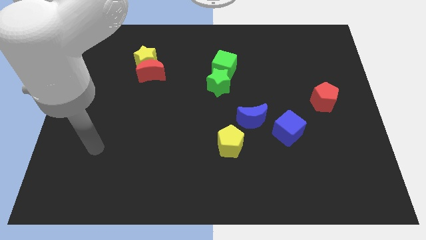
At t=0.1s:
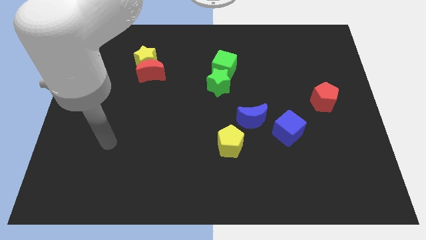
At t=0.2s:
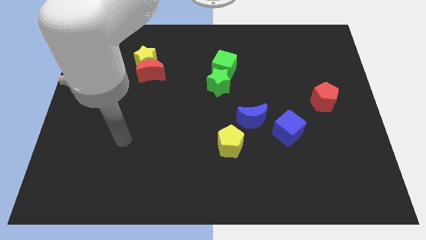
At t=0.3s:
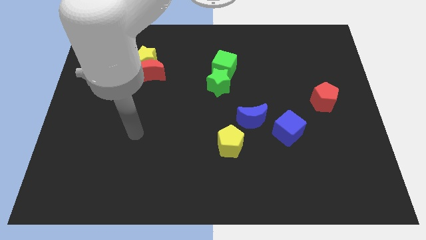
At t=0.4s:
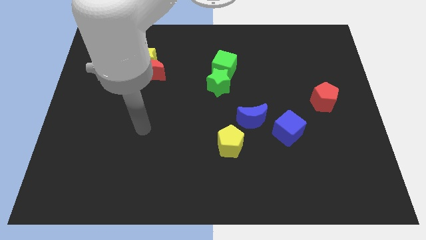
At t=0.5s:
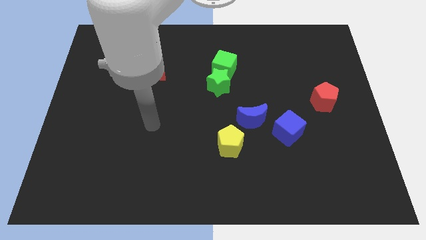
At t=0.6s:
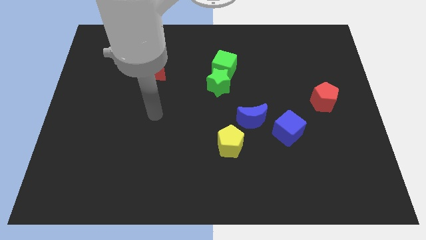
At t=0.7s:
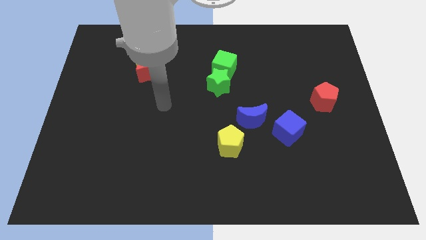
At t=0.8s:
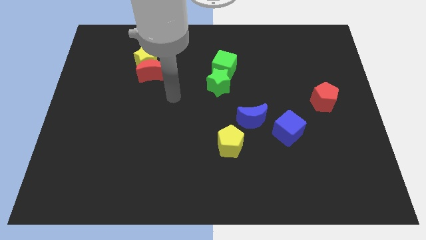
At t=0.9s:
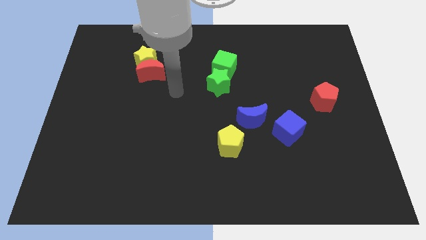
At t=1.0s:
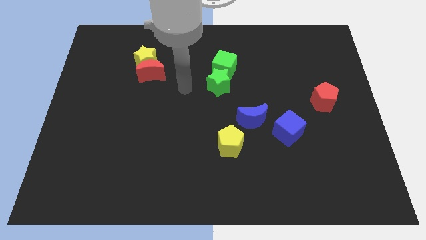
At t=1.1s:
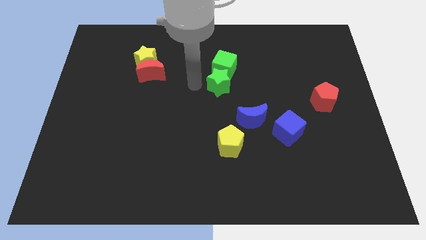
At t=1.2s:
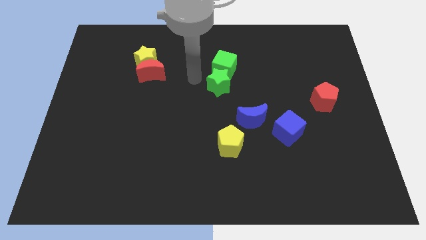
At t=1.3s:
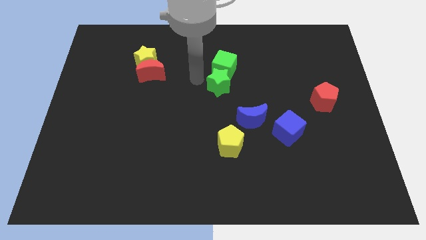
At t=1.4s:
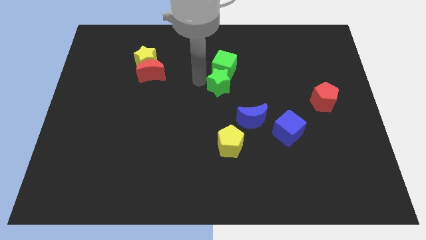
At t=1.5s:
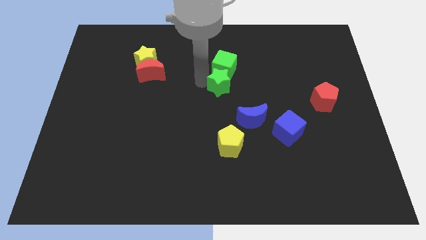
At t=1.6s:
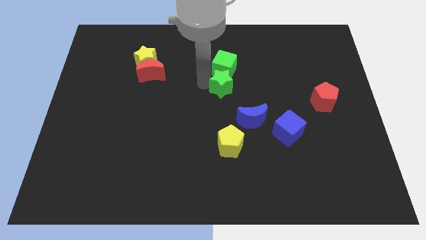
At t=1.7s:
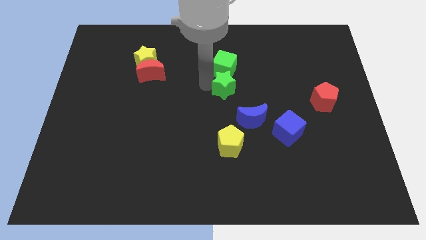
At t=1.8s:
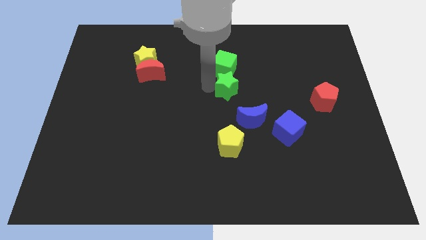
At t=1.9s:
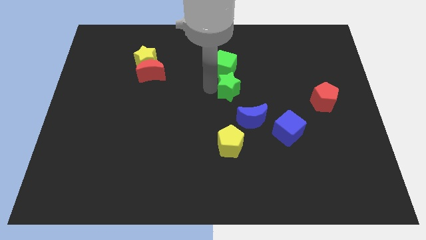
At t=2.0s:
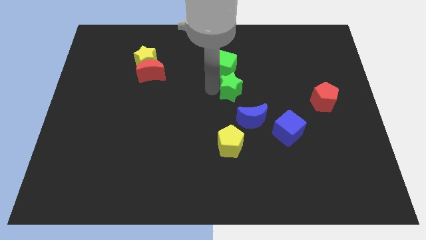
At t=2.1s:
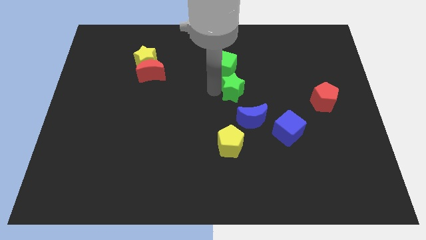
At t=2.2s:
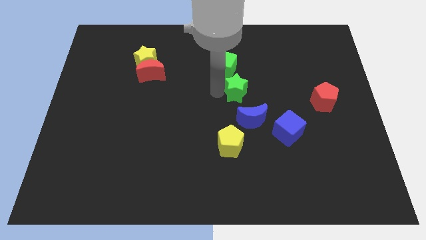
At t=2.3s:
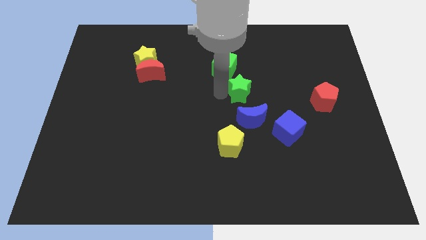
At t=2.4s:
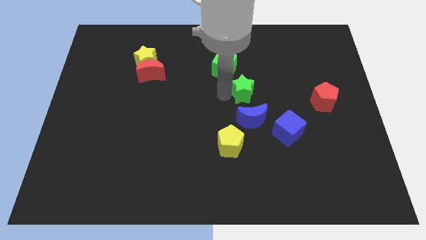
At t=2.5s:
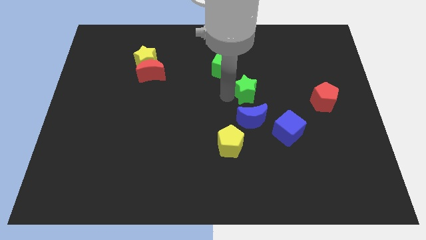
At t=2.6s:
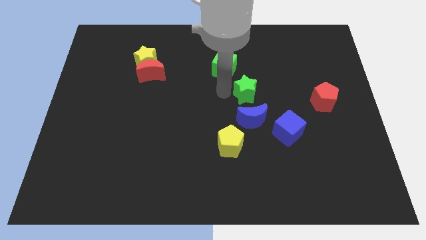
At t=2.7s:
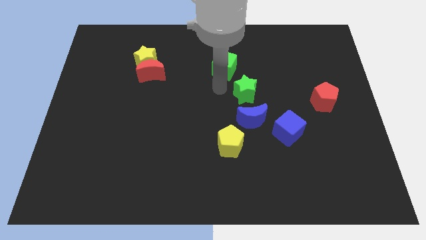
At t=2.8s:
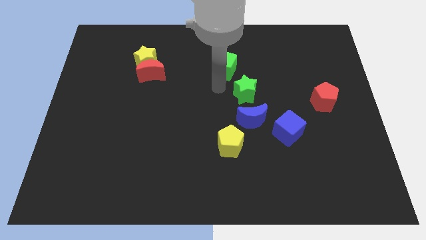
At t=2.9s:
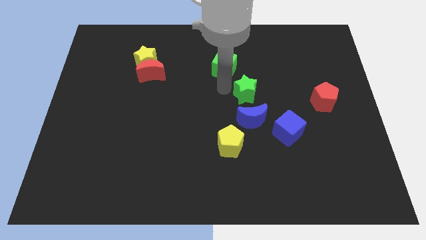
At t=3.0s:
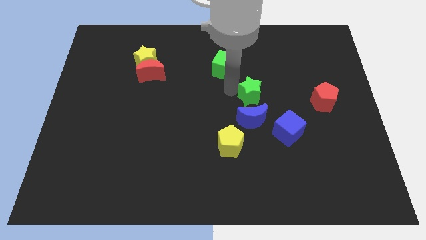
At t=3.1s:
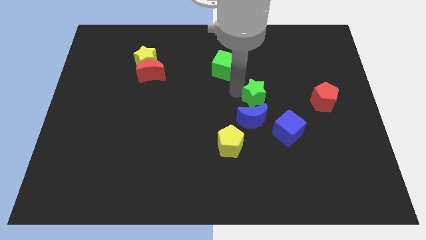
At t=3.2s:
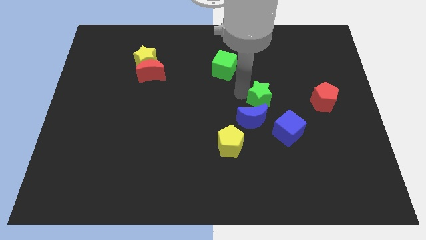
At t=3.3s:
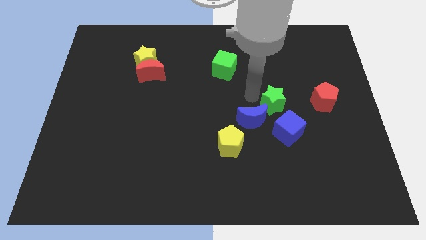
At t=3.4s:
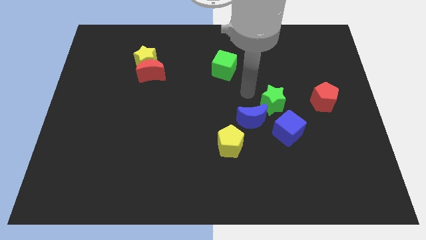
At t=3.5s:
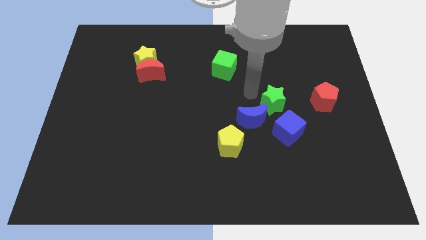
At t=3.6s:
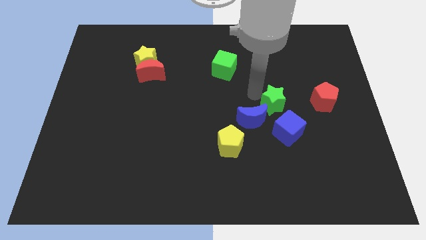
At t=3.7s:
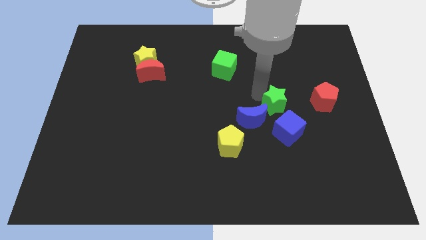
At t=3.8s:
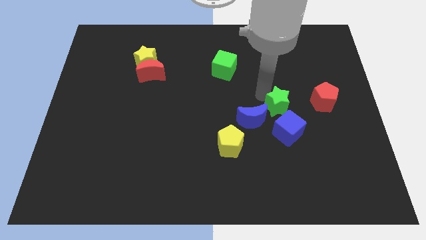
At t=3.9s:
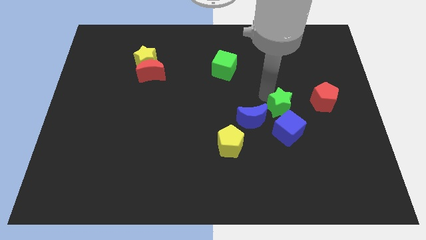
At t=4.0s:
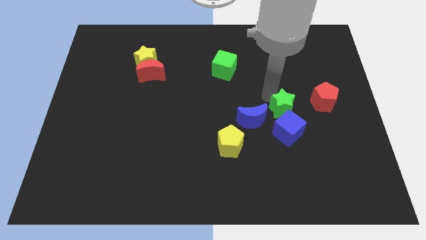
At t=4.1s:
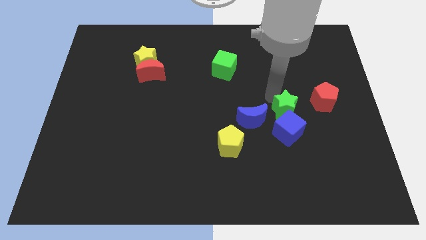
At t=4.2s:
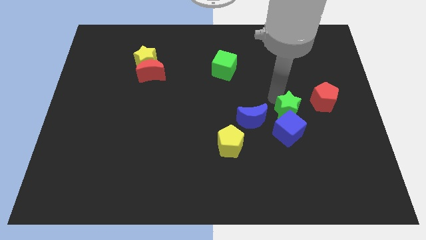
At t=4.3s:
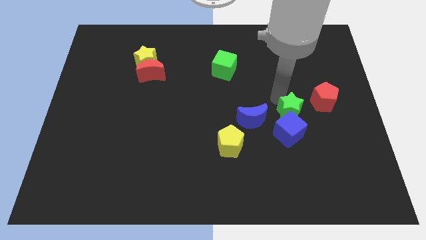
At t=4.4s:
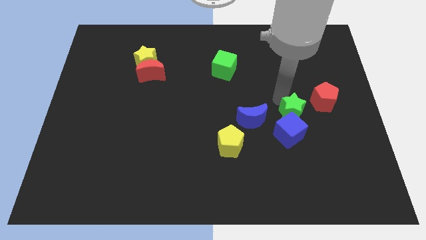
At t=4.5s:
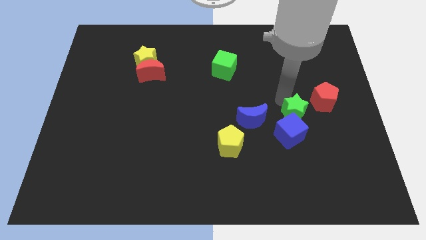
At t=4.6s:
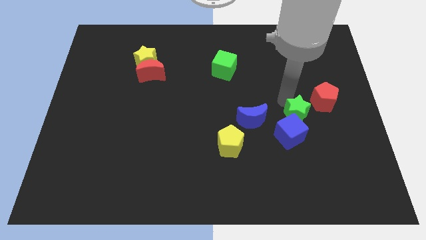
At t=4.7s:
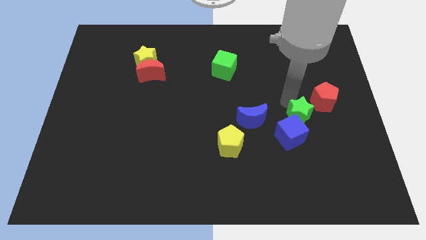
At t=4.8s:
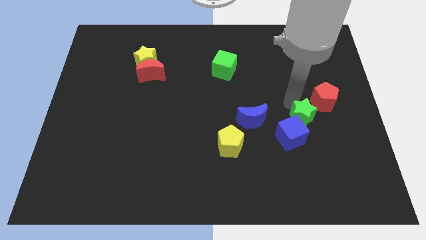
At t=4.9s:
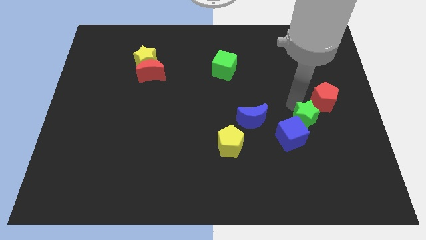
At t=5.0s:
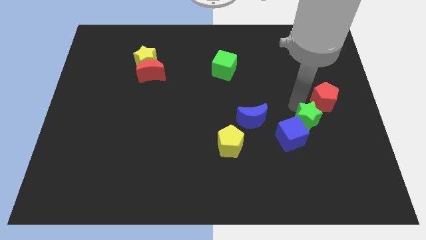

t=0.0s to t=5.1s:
push the green star diagonally downwards and to the right

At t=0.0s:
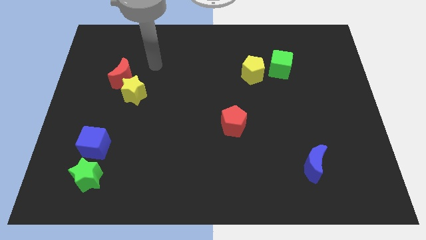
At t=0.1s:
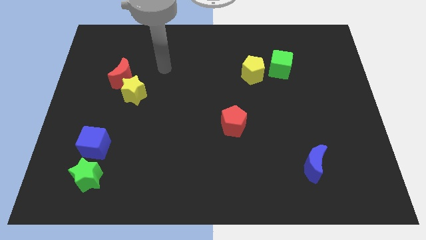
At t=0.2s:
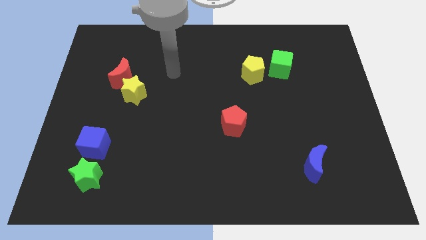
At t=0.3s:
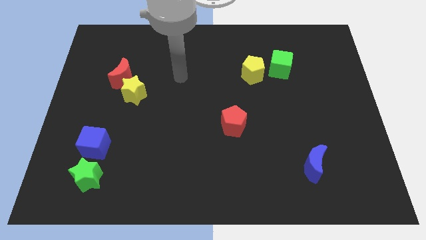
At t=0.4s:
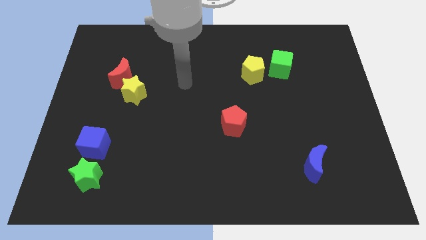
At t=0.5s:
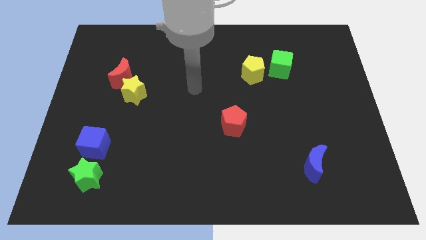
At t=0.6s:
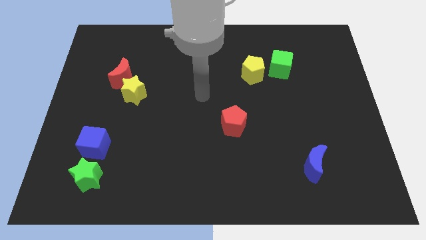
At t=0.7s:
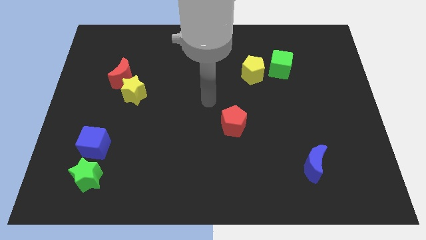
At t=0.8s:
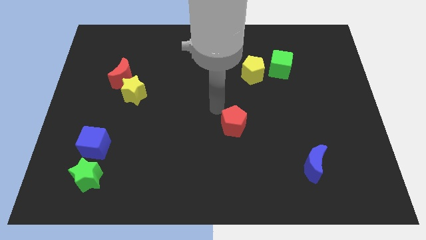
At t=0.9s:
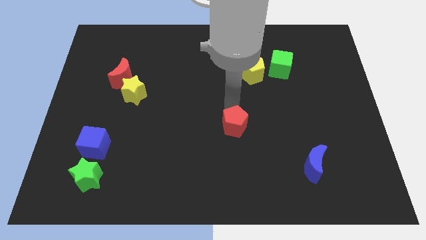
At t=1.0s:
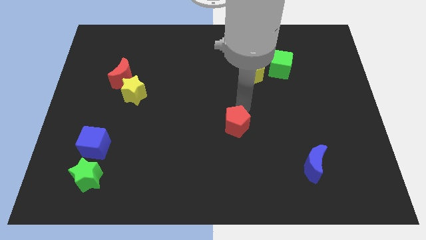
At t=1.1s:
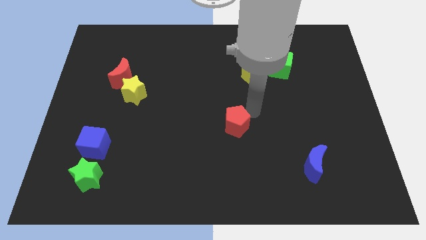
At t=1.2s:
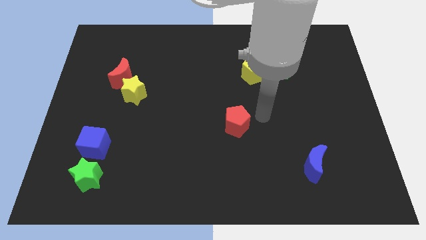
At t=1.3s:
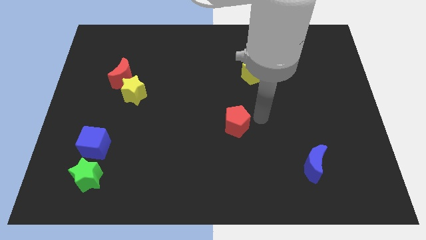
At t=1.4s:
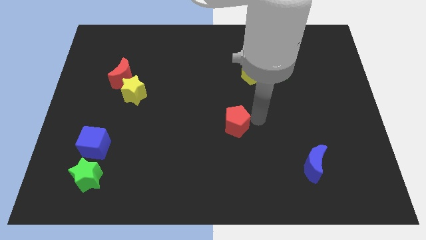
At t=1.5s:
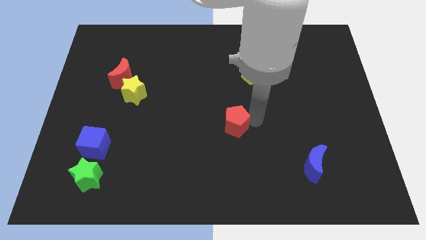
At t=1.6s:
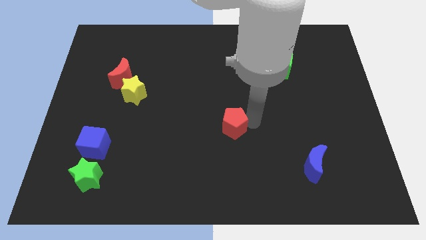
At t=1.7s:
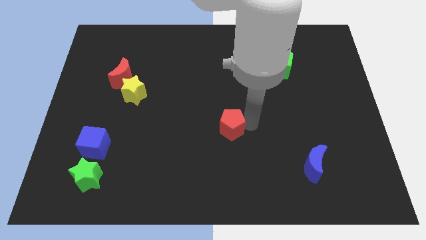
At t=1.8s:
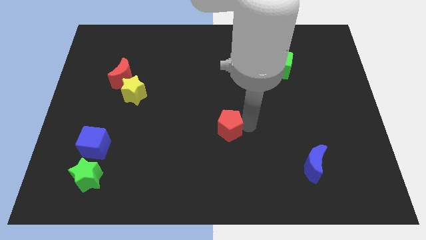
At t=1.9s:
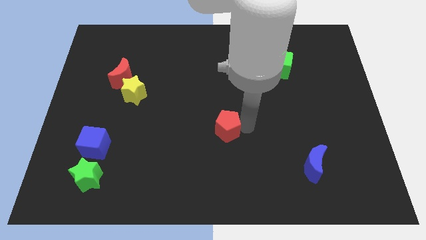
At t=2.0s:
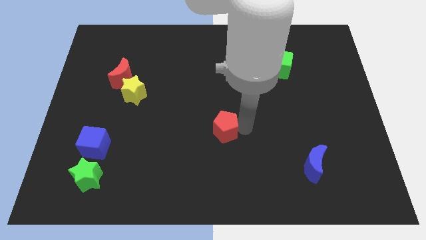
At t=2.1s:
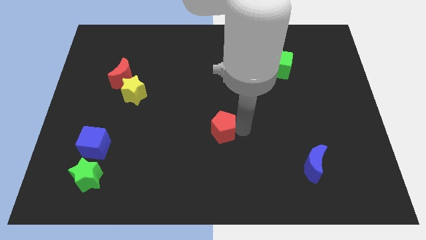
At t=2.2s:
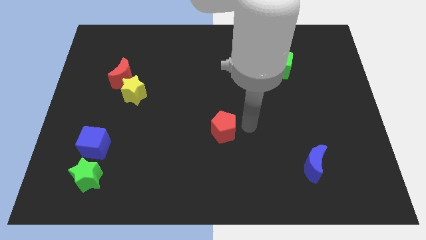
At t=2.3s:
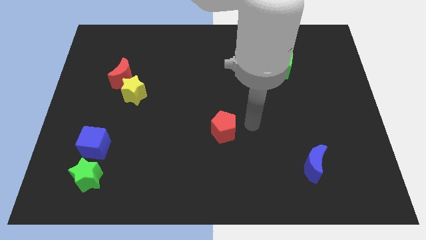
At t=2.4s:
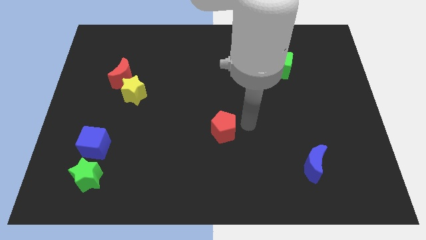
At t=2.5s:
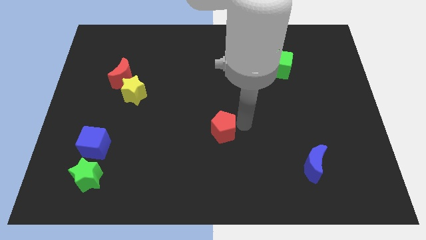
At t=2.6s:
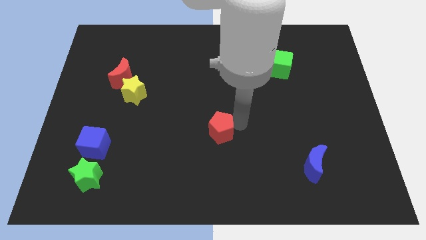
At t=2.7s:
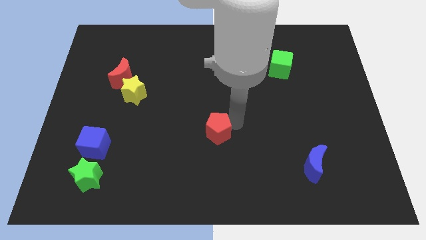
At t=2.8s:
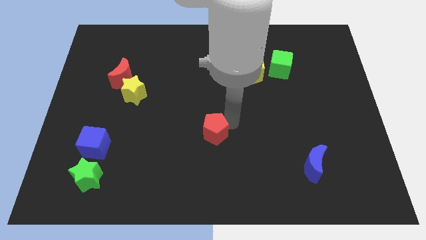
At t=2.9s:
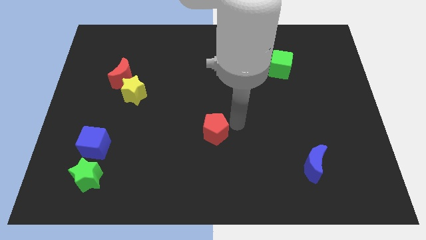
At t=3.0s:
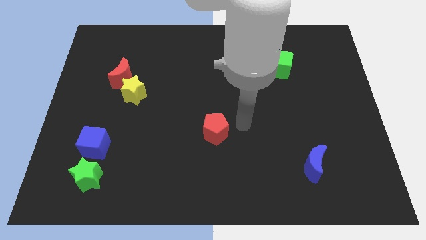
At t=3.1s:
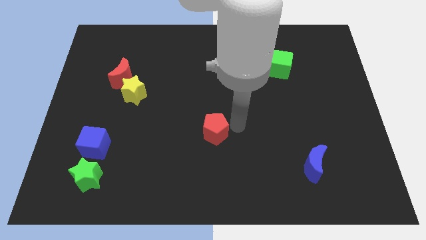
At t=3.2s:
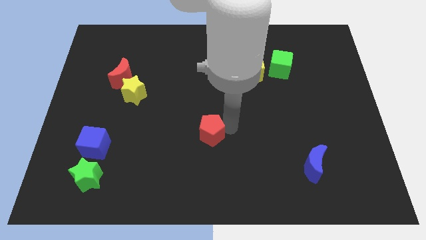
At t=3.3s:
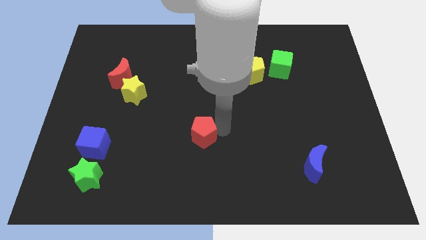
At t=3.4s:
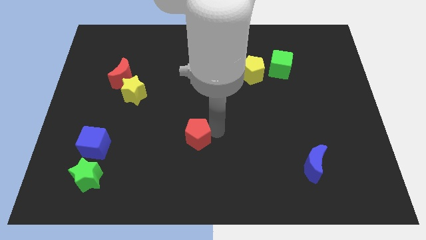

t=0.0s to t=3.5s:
slightly slide the red pentagon left
